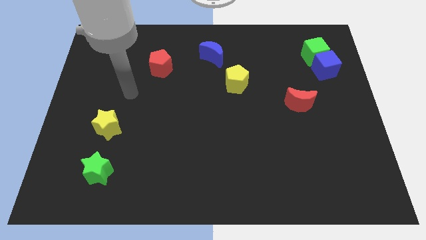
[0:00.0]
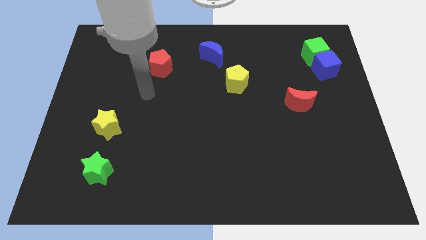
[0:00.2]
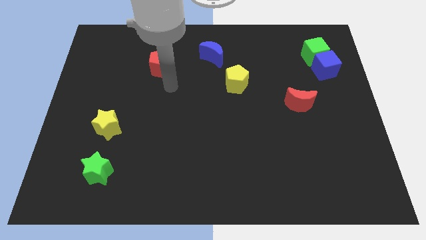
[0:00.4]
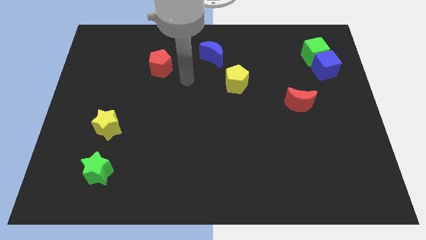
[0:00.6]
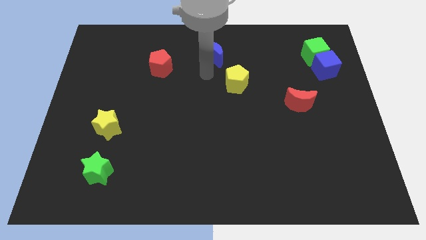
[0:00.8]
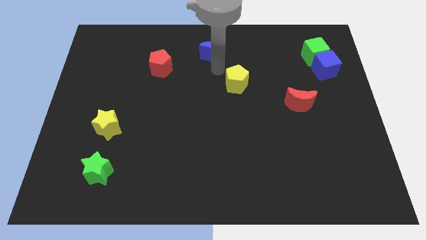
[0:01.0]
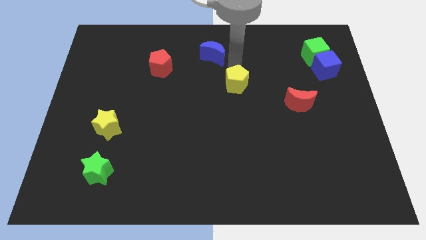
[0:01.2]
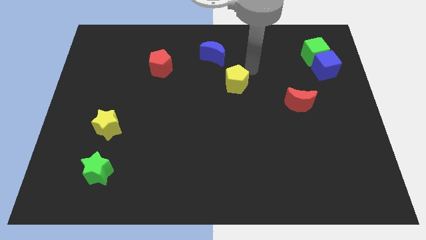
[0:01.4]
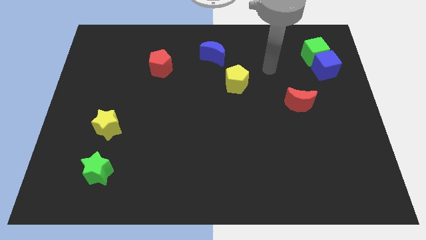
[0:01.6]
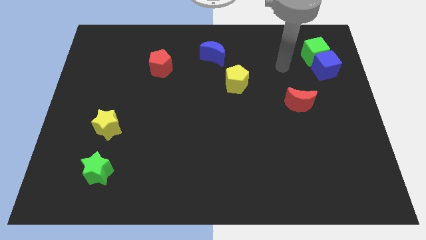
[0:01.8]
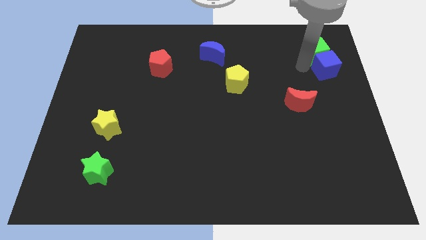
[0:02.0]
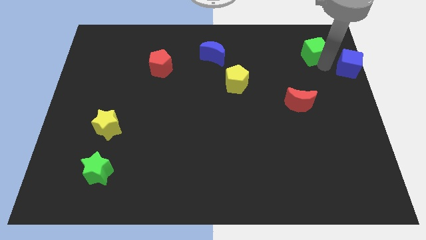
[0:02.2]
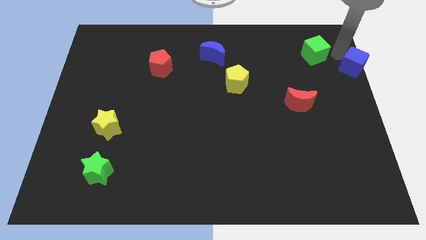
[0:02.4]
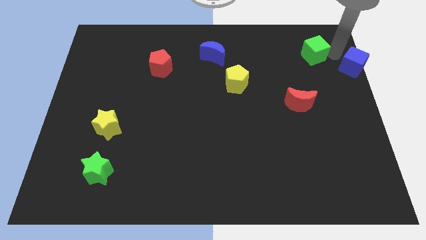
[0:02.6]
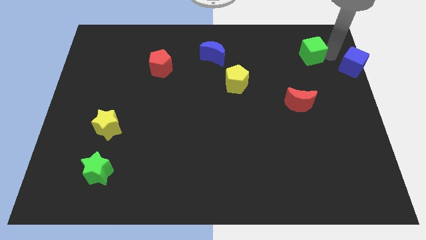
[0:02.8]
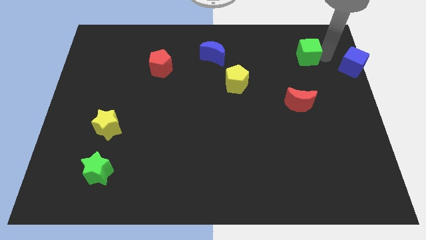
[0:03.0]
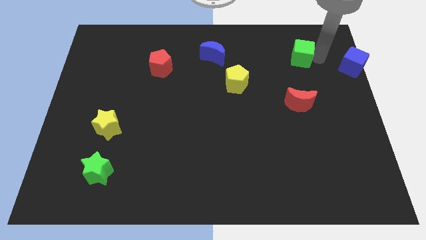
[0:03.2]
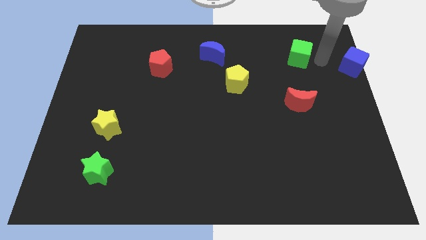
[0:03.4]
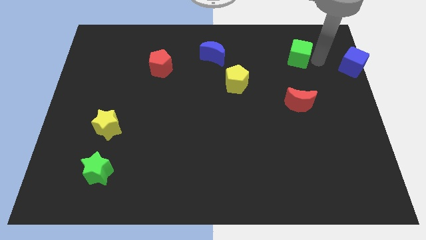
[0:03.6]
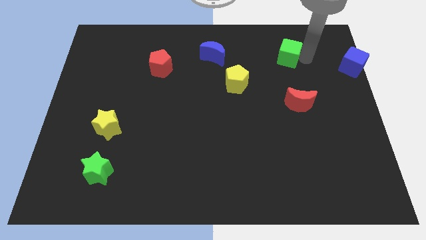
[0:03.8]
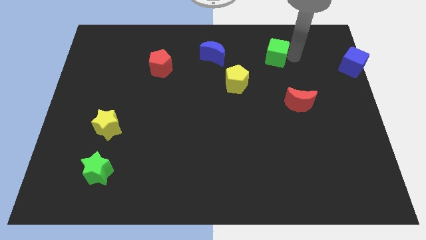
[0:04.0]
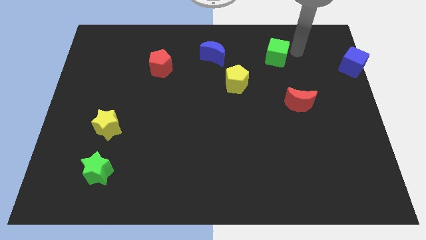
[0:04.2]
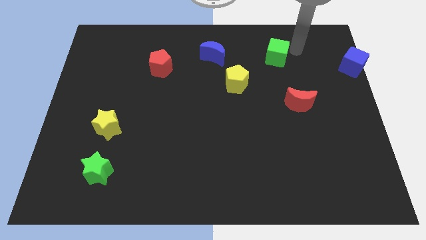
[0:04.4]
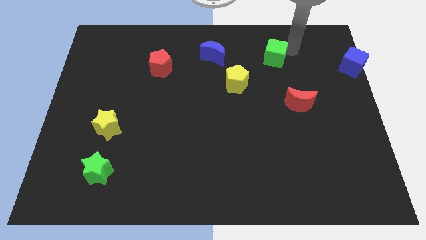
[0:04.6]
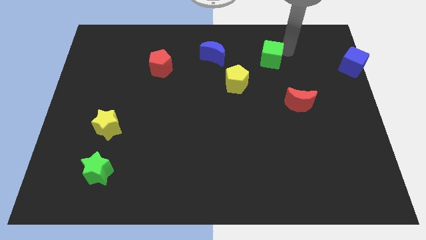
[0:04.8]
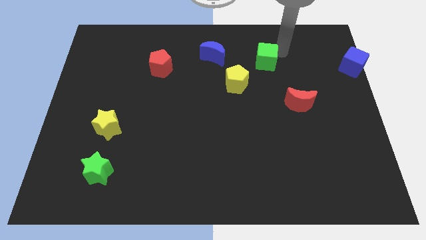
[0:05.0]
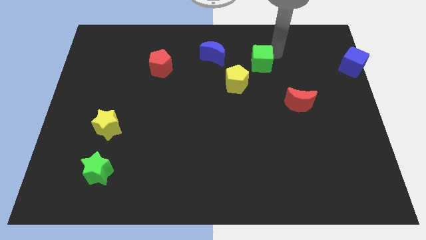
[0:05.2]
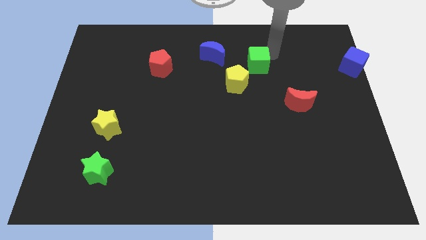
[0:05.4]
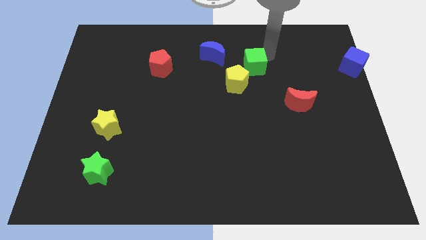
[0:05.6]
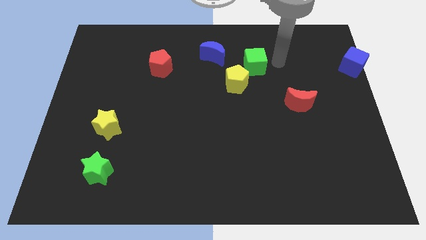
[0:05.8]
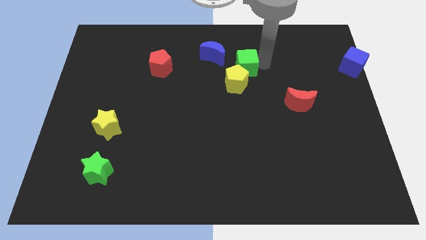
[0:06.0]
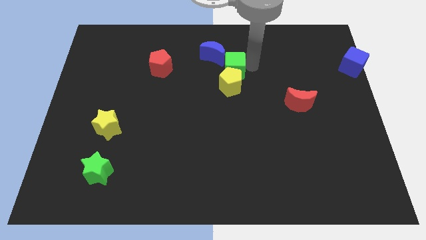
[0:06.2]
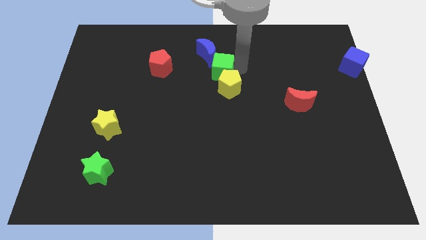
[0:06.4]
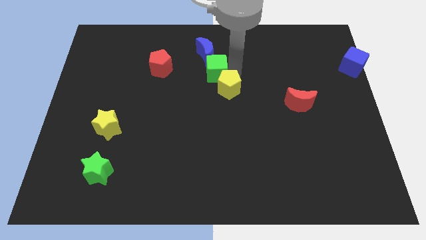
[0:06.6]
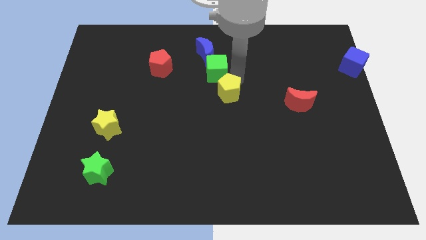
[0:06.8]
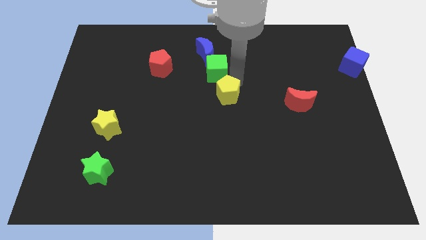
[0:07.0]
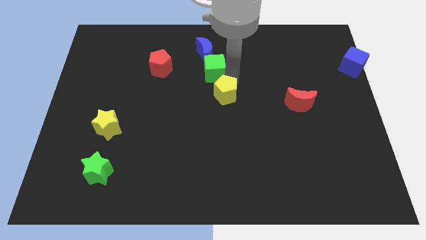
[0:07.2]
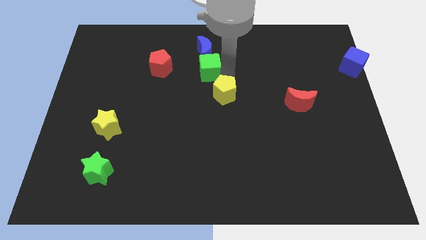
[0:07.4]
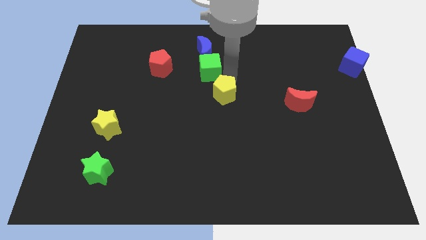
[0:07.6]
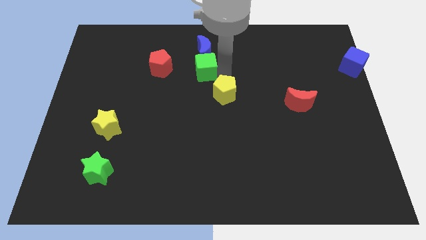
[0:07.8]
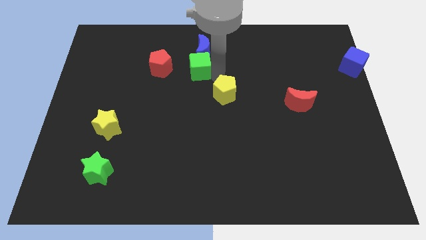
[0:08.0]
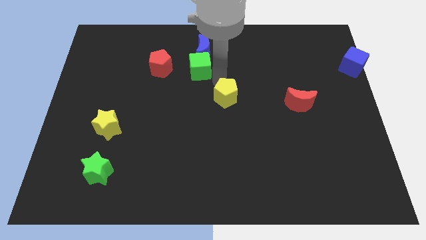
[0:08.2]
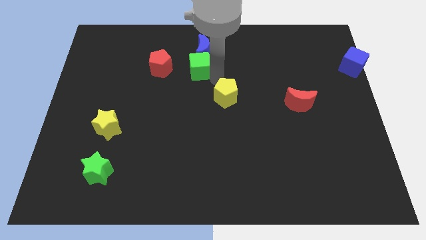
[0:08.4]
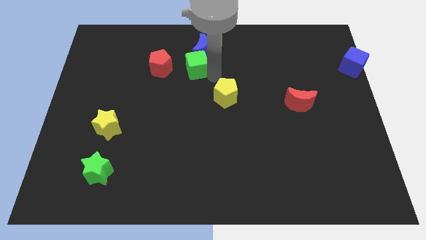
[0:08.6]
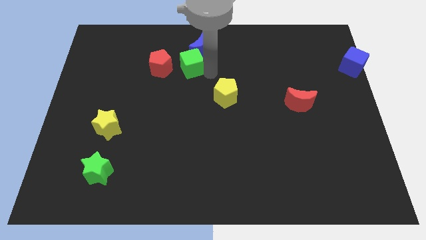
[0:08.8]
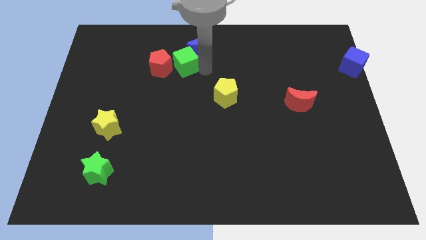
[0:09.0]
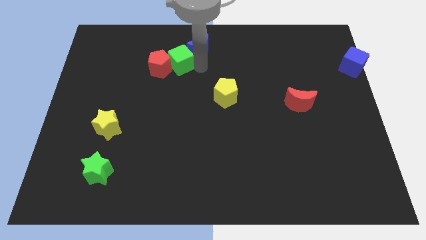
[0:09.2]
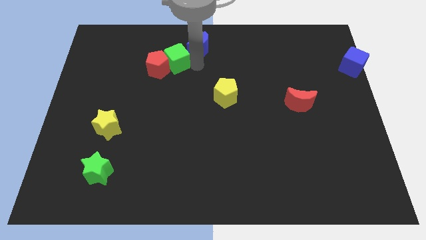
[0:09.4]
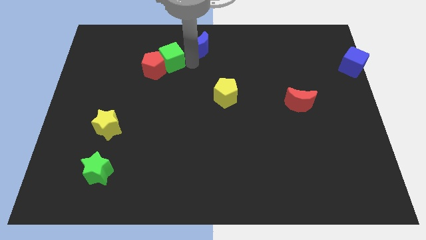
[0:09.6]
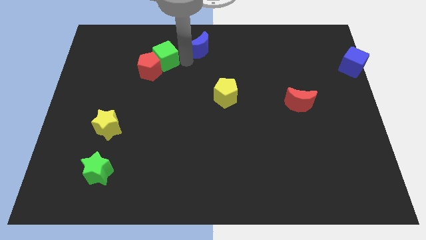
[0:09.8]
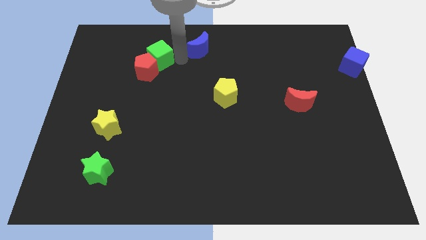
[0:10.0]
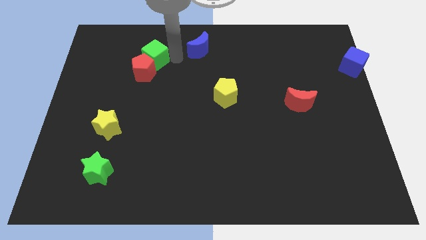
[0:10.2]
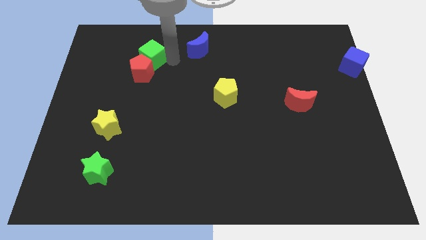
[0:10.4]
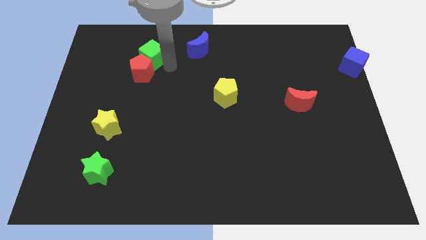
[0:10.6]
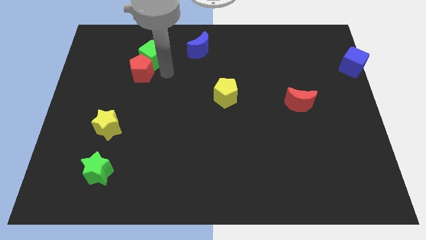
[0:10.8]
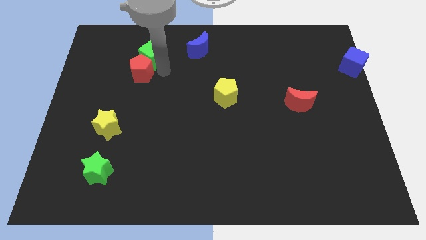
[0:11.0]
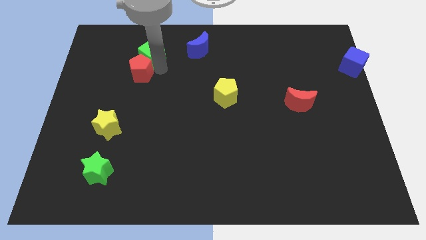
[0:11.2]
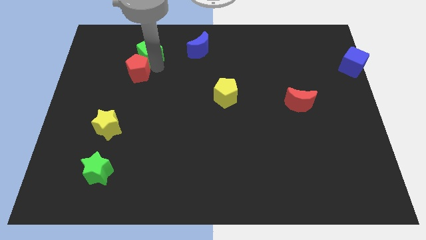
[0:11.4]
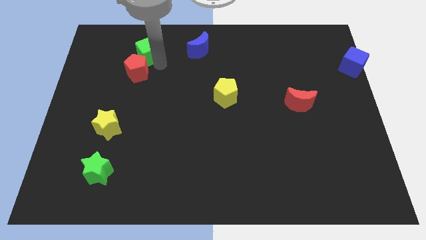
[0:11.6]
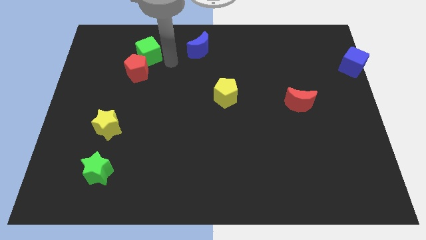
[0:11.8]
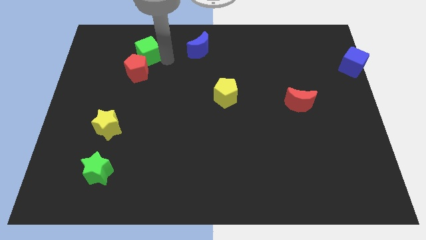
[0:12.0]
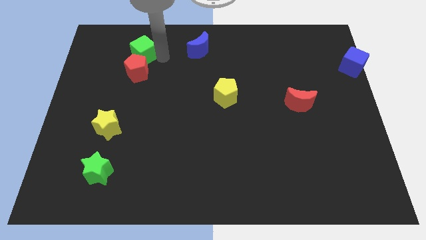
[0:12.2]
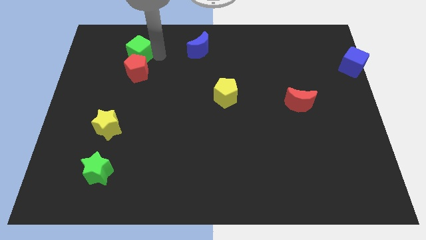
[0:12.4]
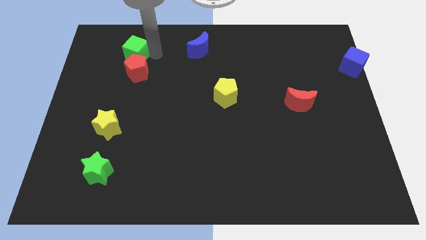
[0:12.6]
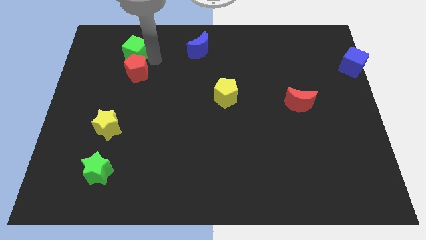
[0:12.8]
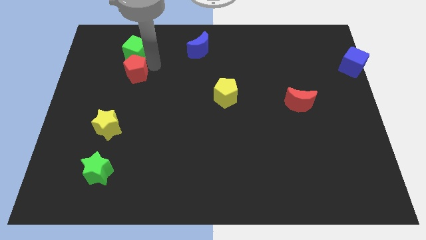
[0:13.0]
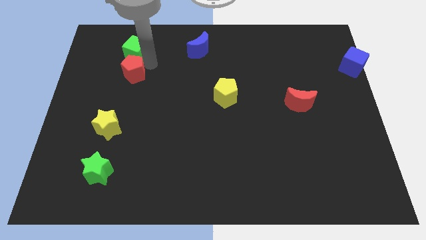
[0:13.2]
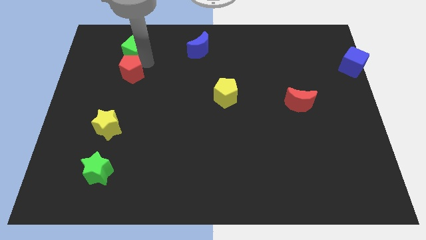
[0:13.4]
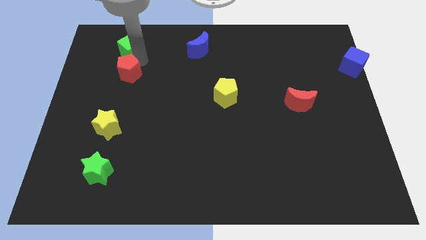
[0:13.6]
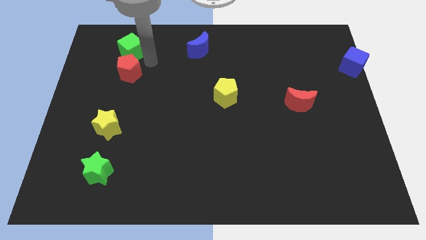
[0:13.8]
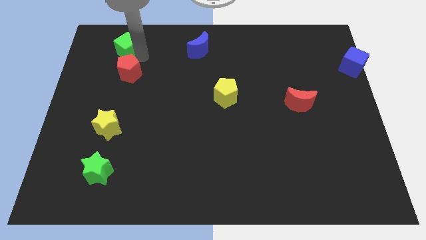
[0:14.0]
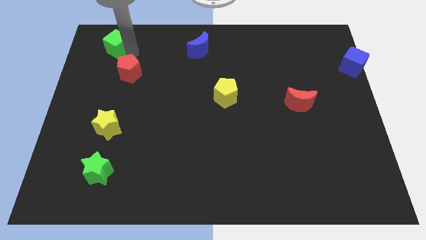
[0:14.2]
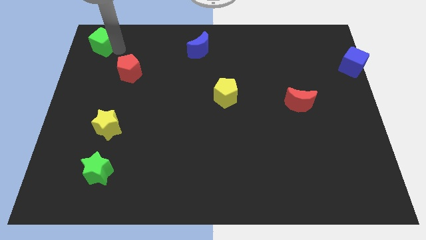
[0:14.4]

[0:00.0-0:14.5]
move the green cube to the top left corner
